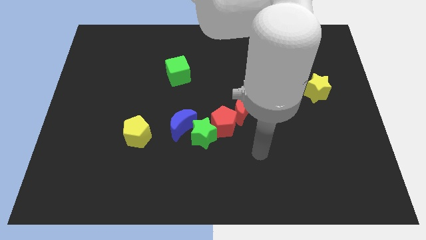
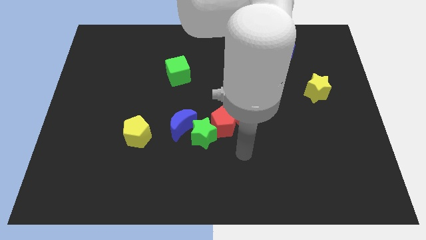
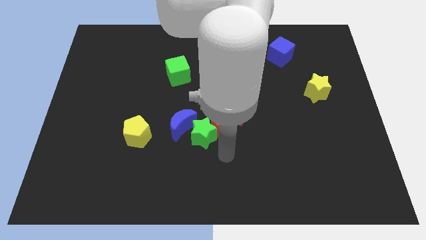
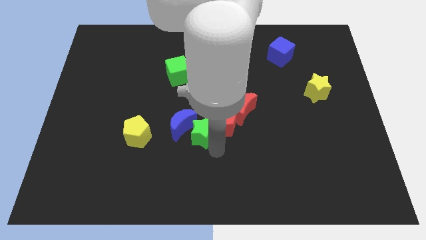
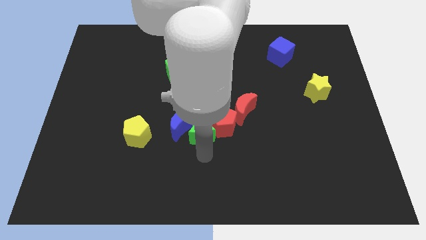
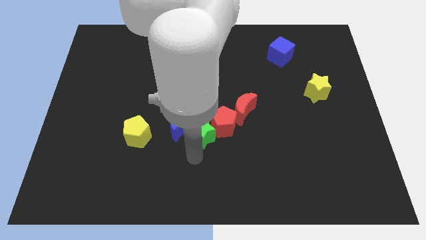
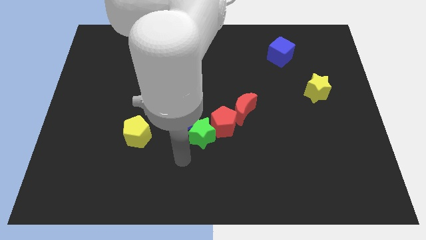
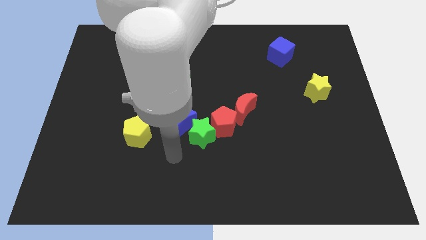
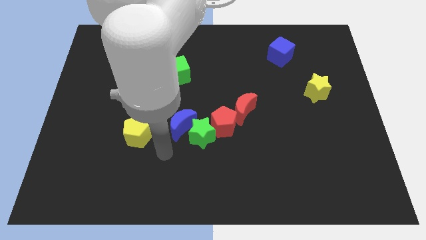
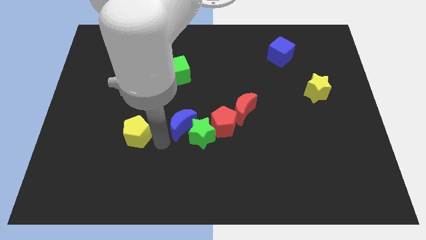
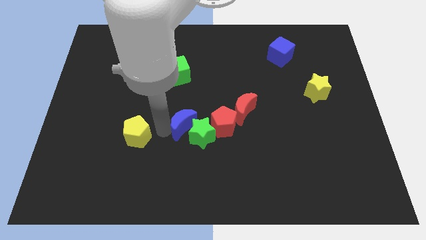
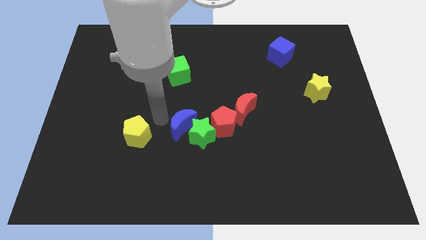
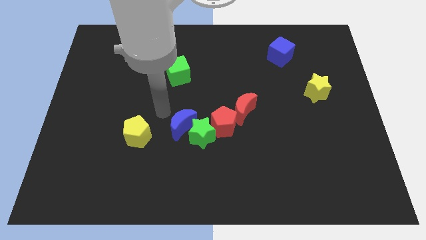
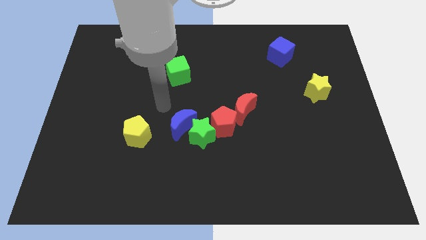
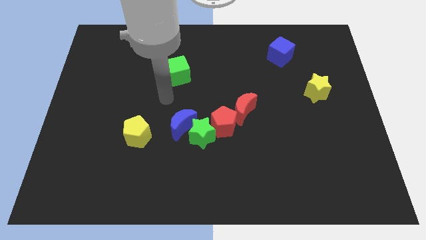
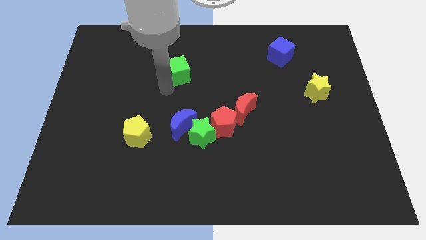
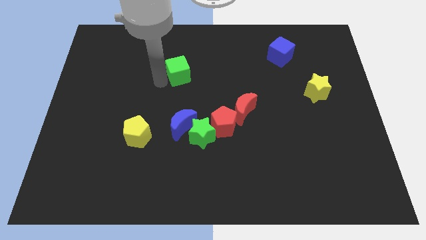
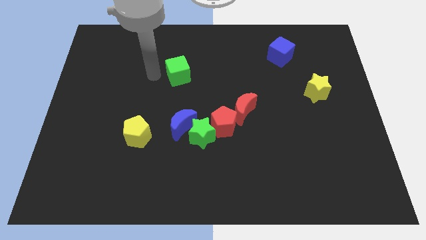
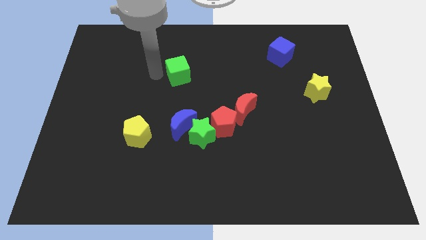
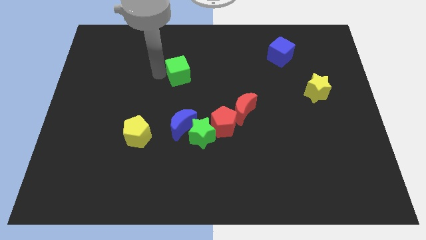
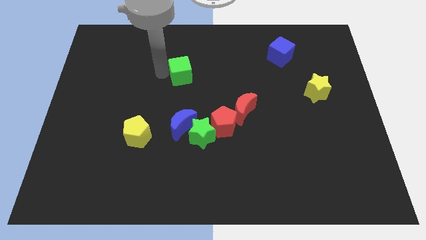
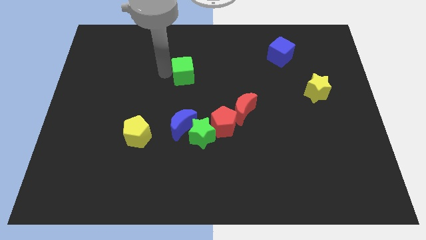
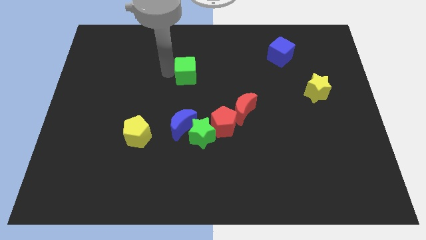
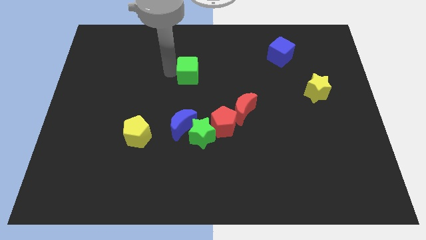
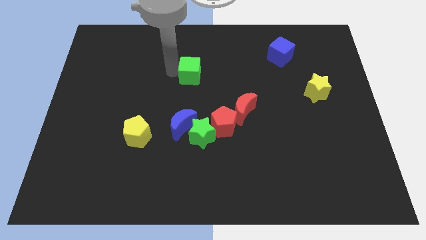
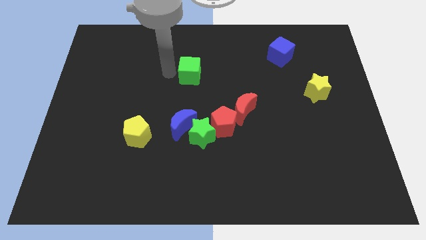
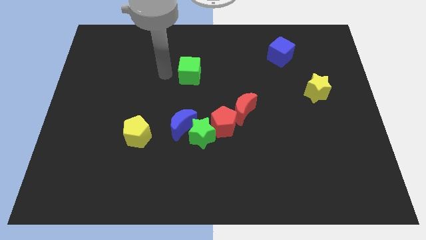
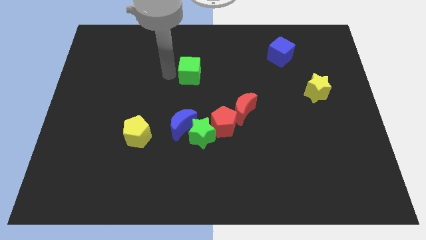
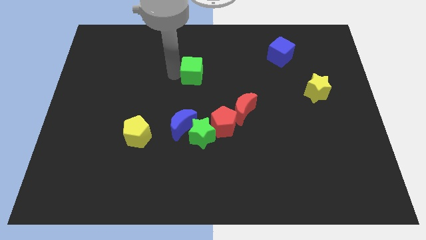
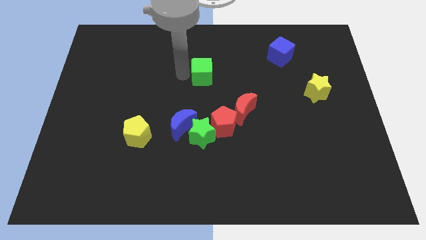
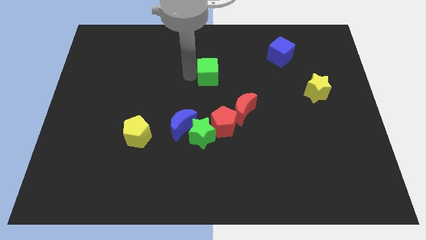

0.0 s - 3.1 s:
slightly move the green cube to the right

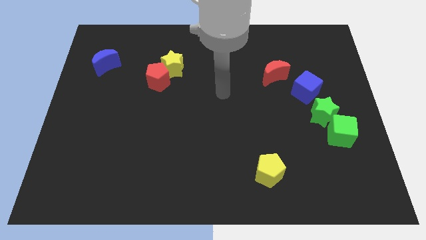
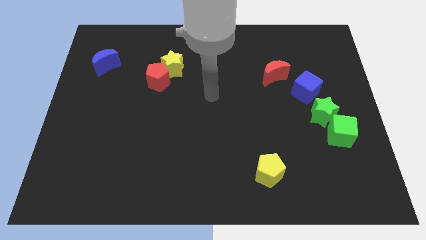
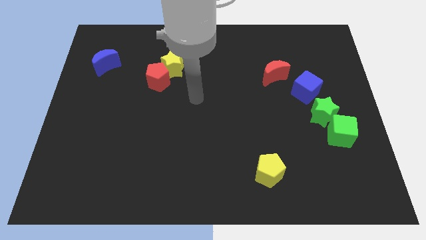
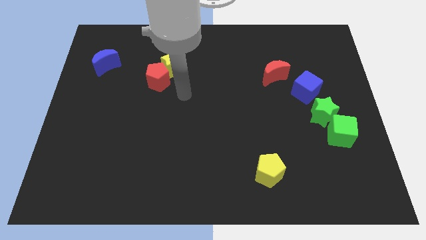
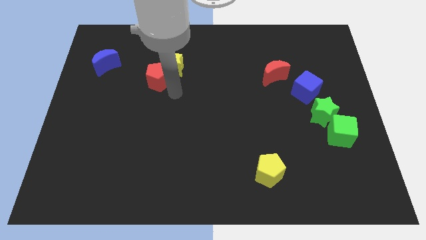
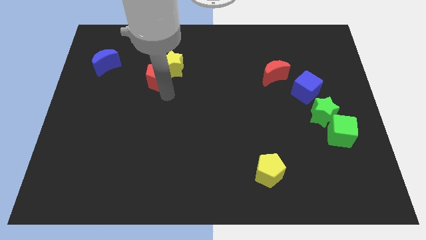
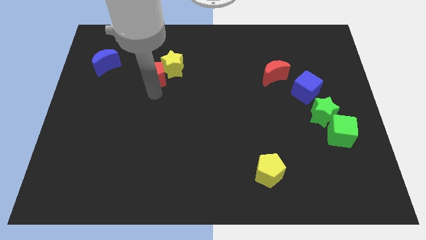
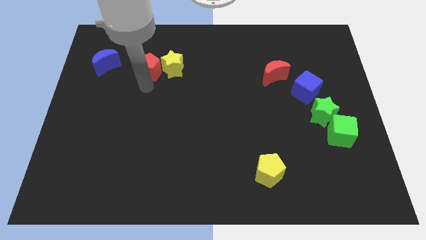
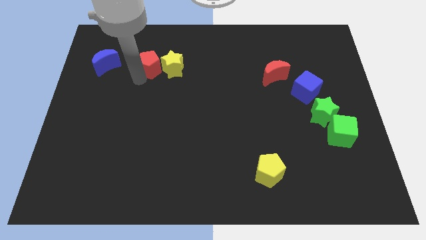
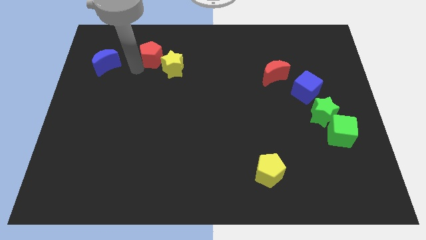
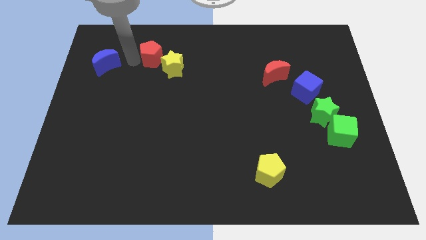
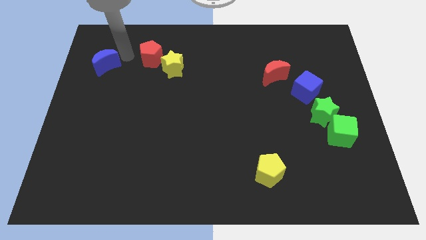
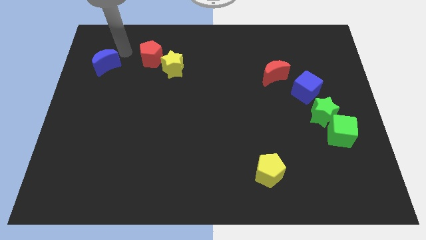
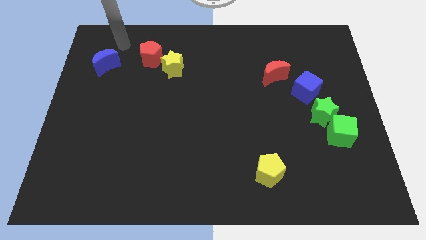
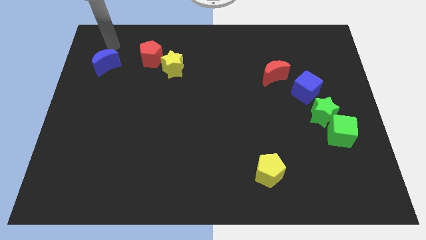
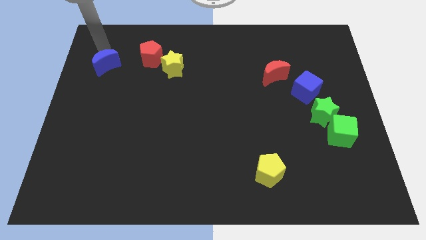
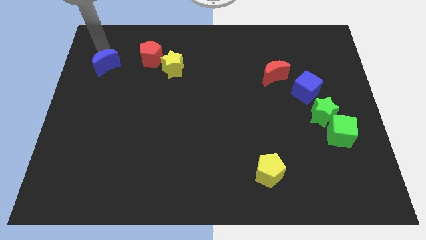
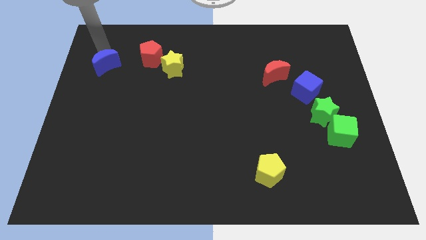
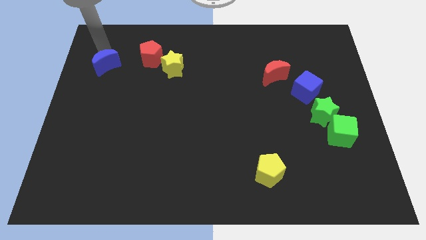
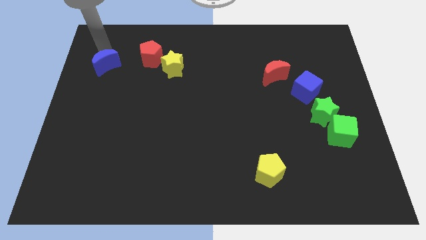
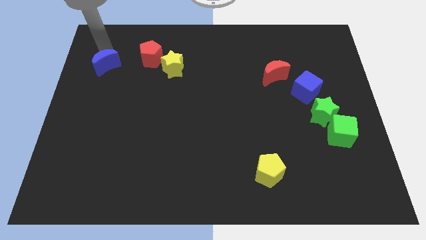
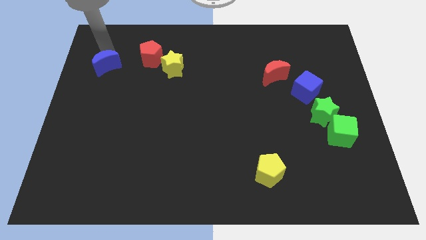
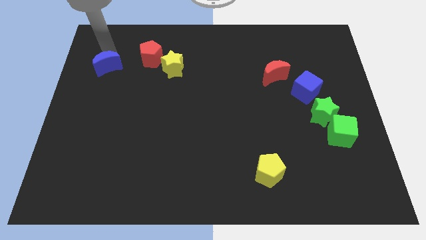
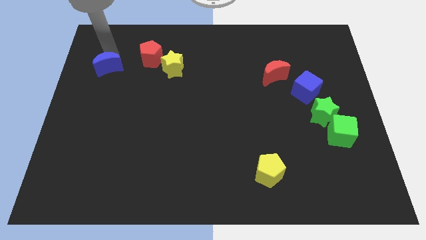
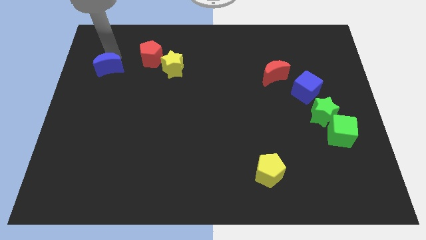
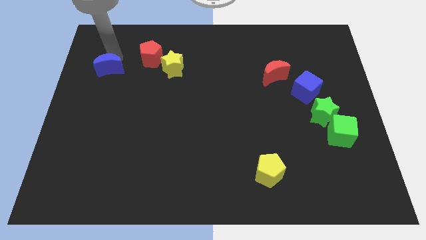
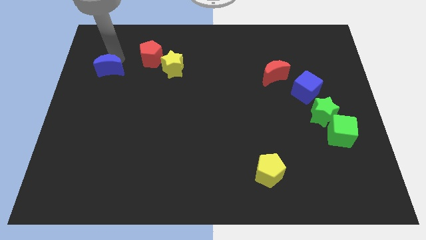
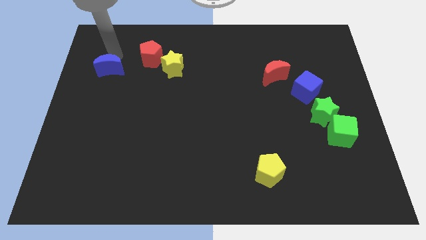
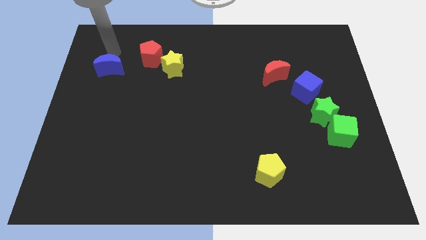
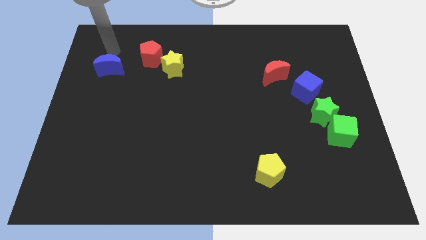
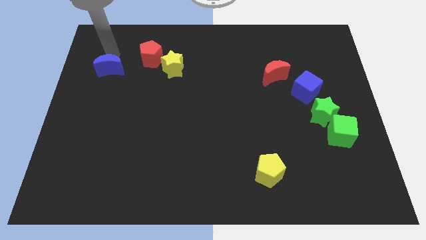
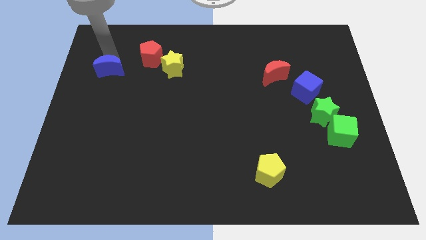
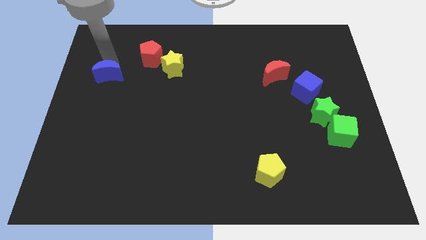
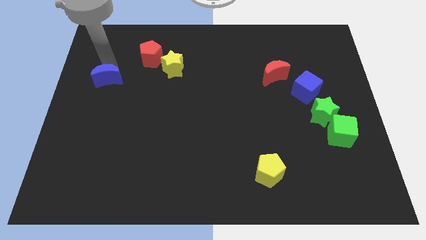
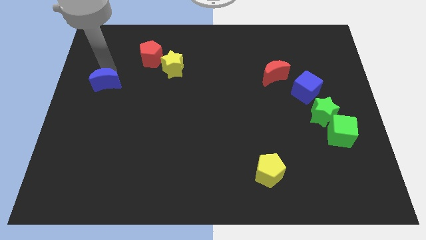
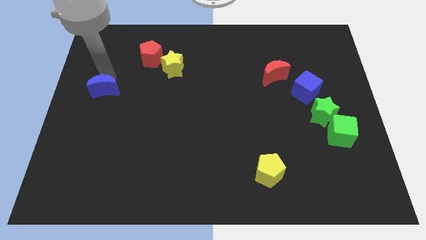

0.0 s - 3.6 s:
push the blue moon down slightly

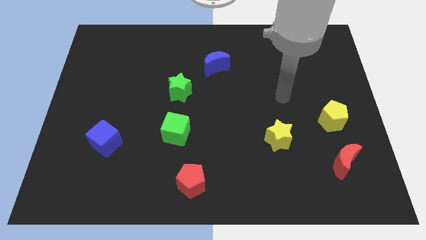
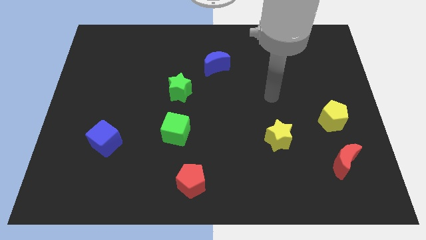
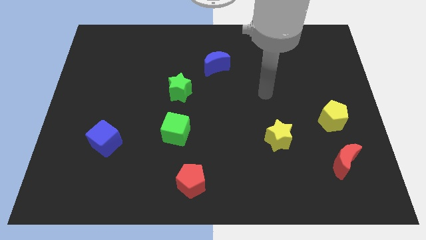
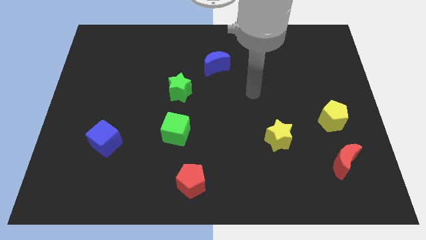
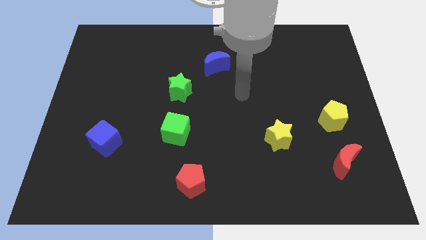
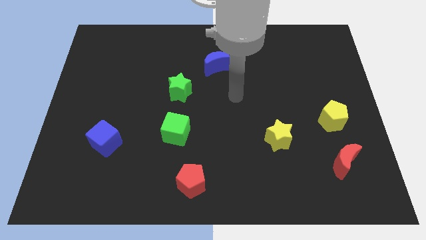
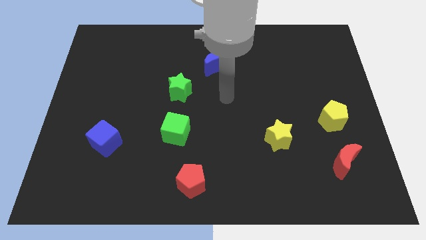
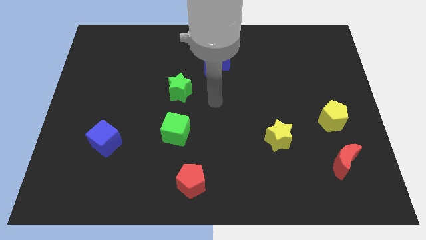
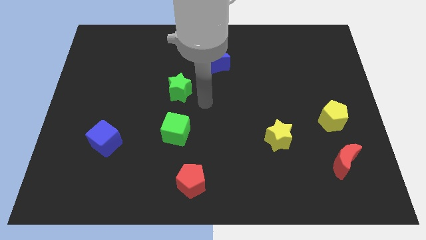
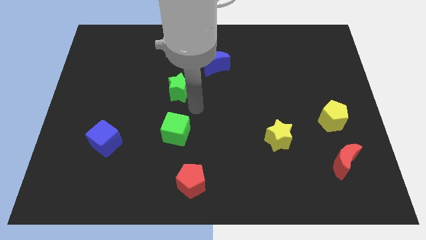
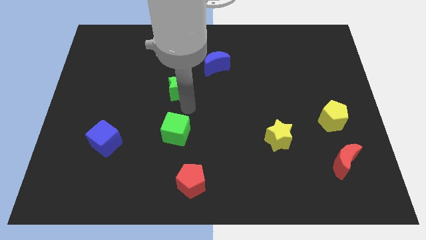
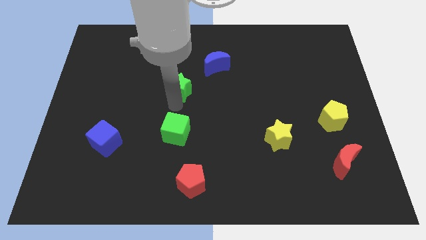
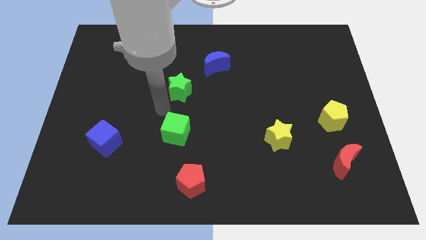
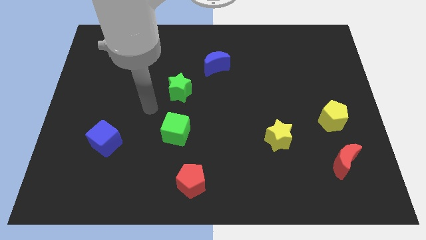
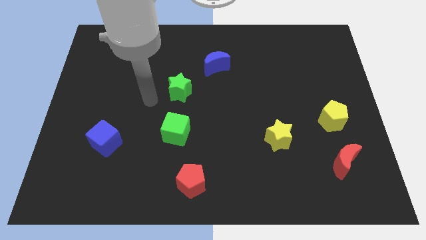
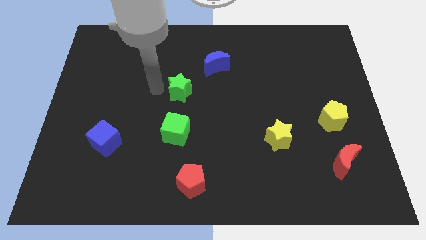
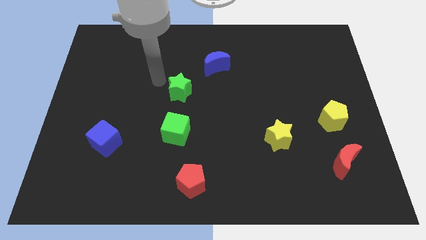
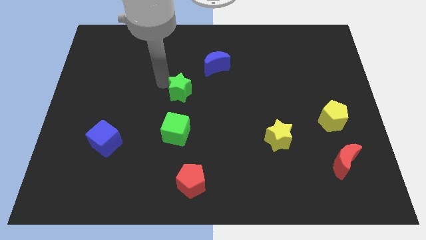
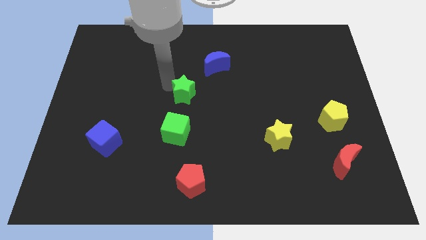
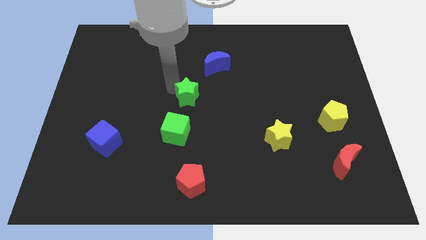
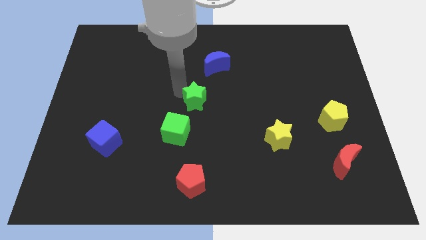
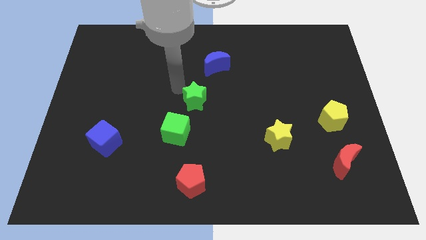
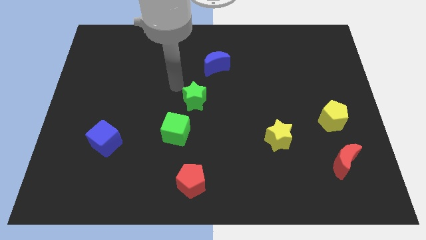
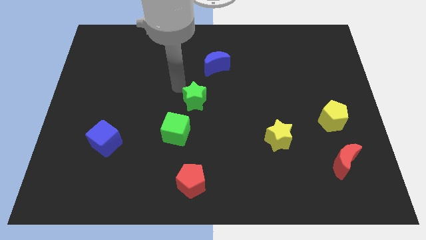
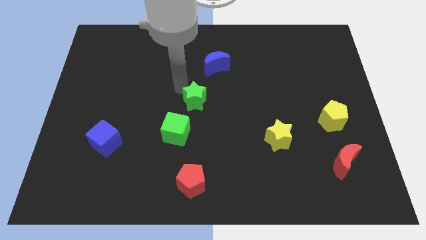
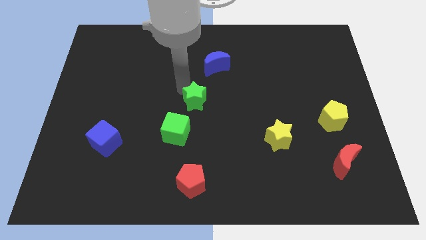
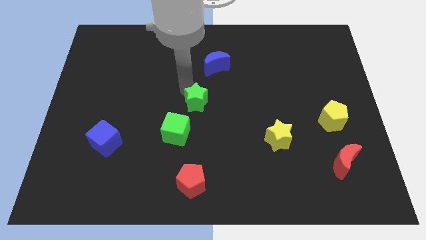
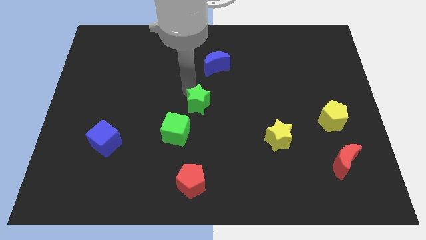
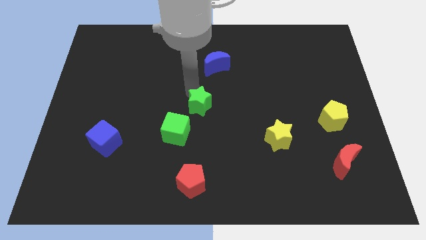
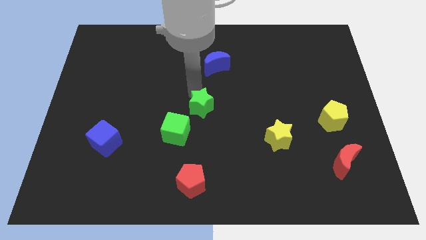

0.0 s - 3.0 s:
push the green star downwards and right diagonally a little
